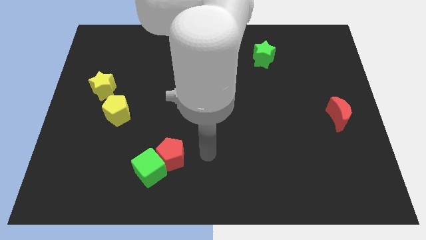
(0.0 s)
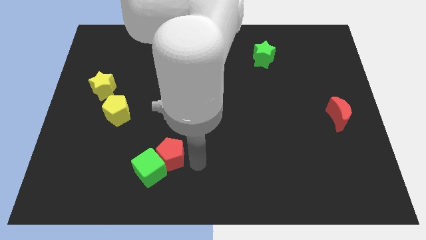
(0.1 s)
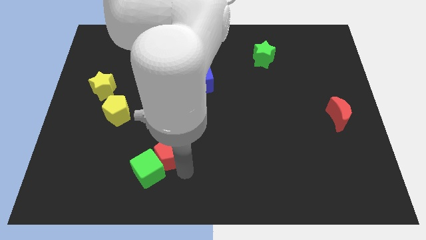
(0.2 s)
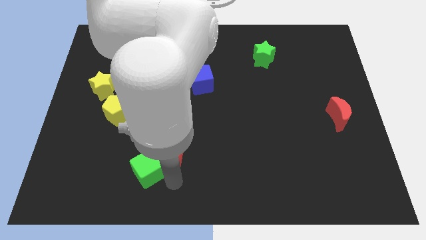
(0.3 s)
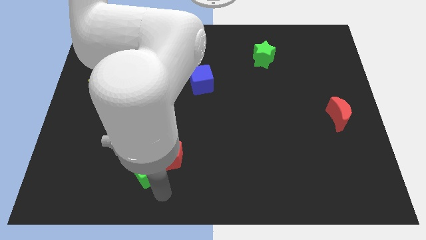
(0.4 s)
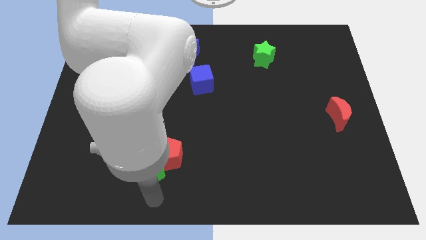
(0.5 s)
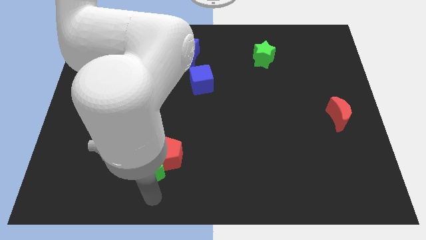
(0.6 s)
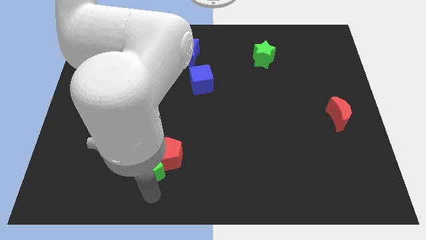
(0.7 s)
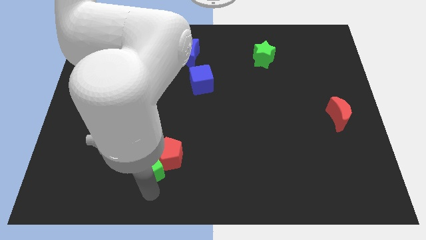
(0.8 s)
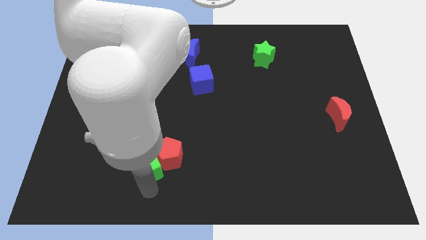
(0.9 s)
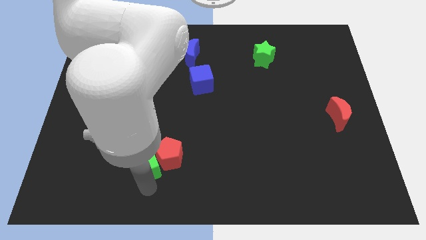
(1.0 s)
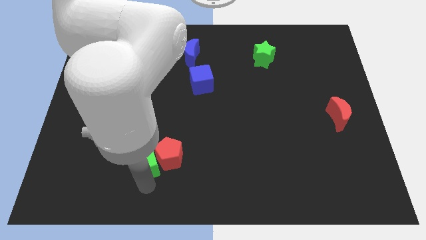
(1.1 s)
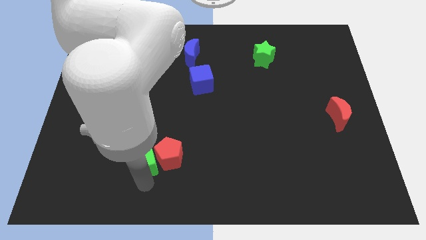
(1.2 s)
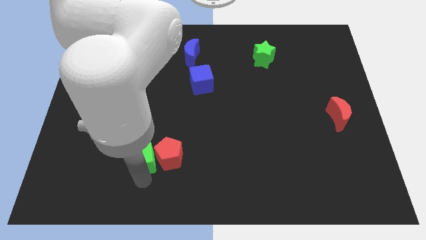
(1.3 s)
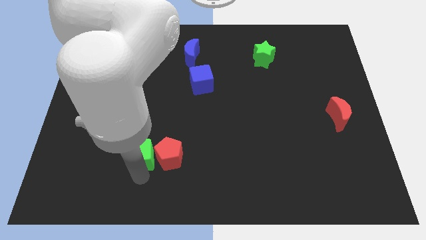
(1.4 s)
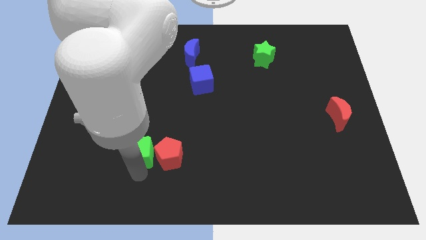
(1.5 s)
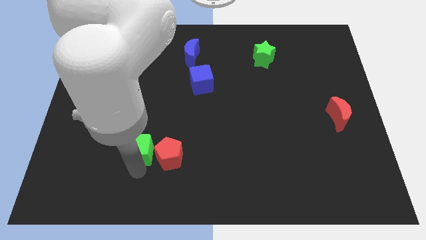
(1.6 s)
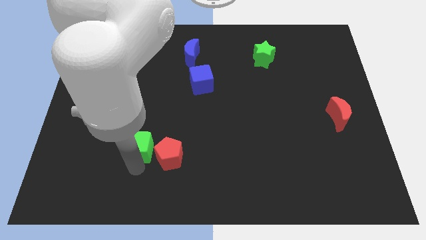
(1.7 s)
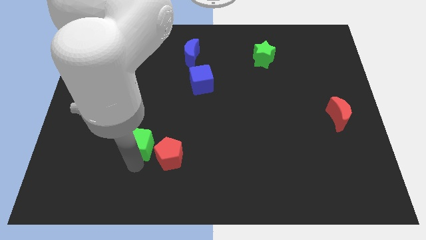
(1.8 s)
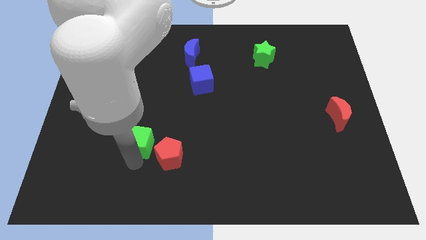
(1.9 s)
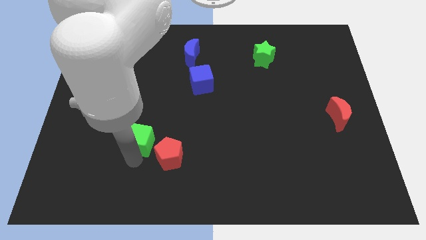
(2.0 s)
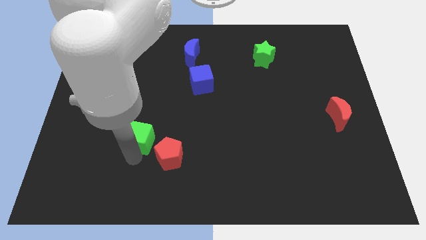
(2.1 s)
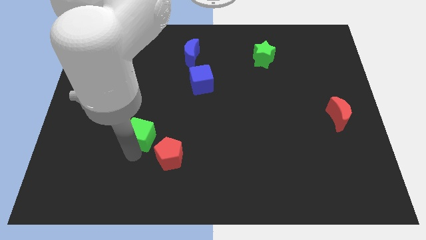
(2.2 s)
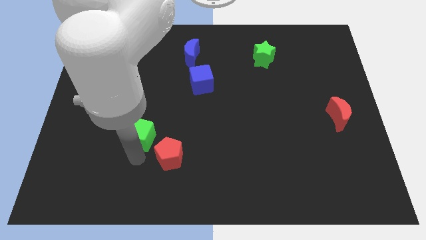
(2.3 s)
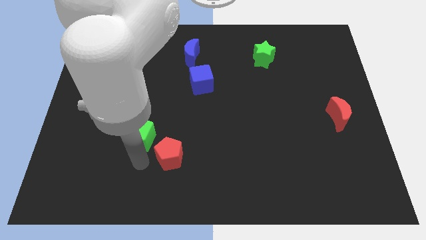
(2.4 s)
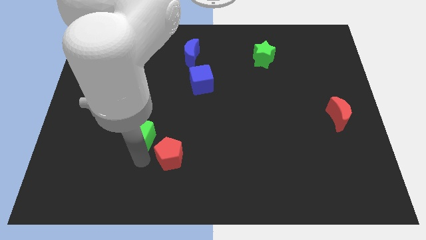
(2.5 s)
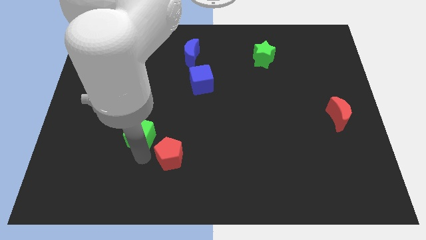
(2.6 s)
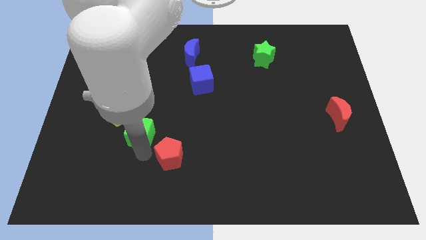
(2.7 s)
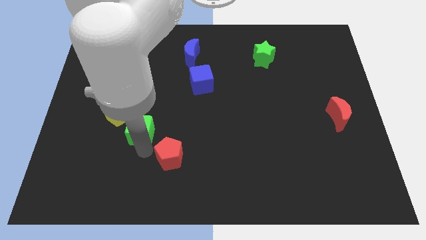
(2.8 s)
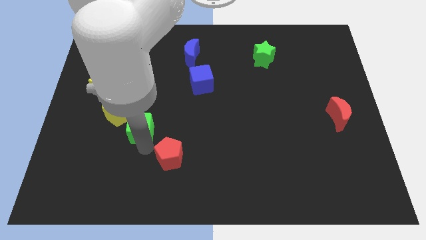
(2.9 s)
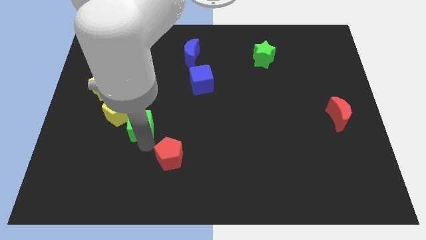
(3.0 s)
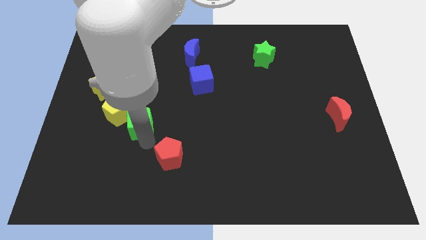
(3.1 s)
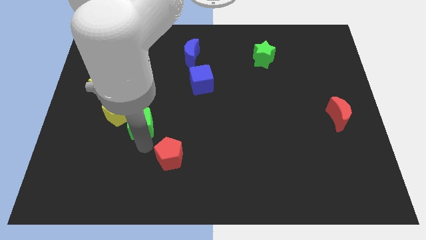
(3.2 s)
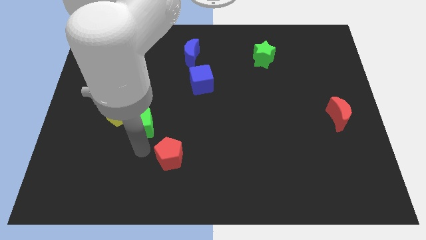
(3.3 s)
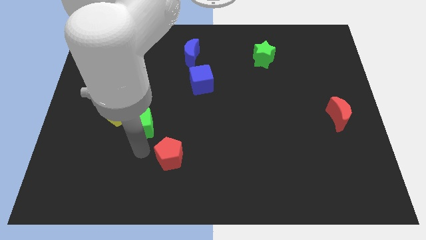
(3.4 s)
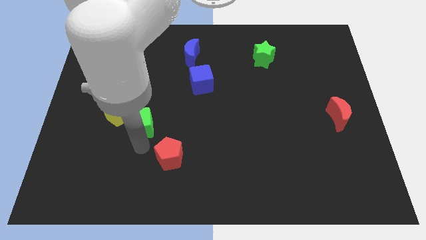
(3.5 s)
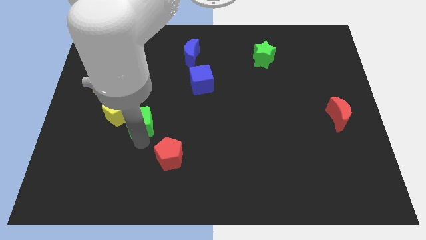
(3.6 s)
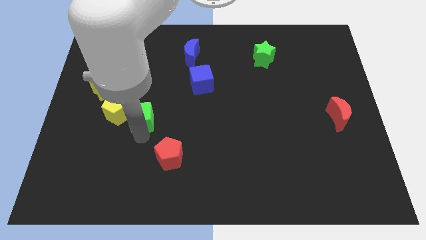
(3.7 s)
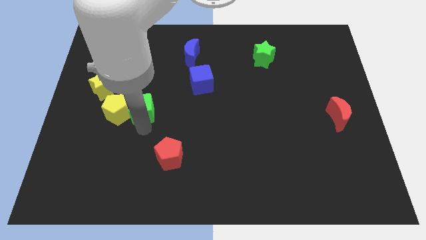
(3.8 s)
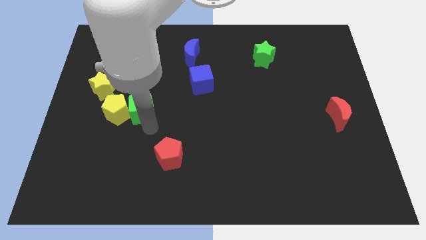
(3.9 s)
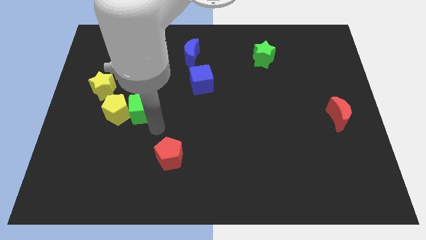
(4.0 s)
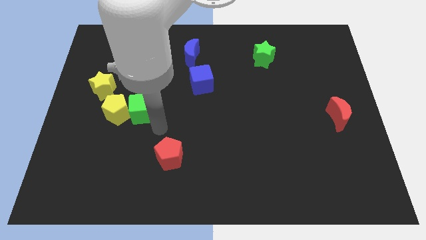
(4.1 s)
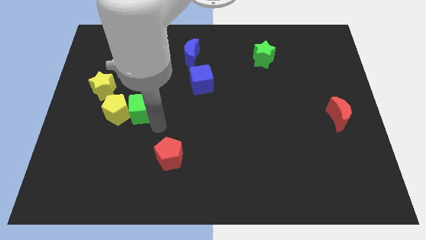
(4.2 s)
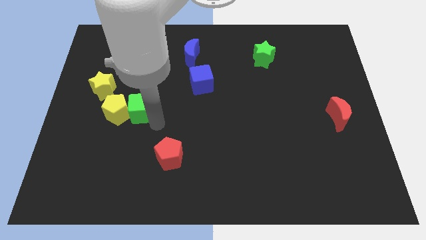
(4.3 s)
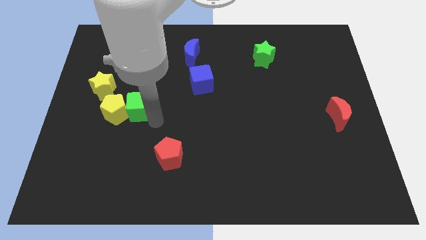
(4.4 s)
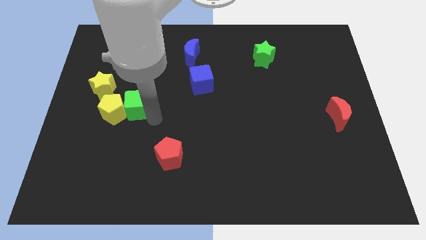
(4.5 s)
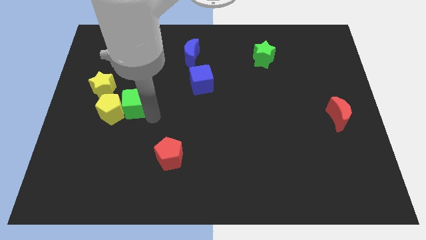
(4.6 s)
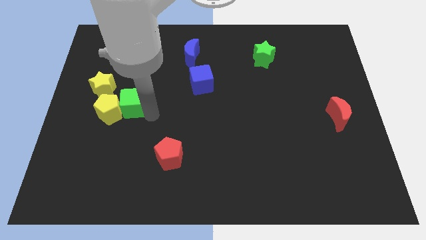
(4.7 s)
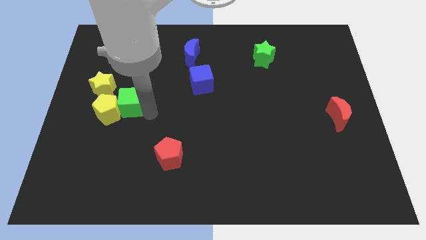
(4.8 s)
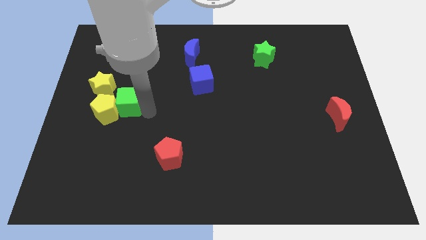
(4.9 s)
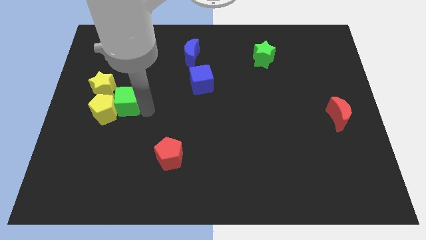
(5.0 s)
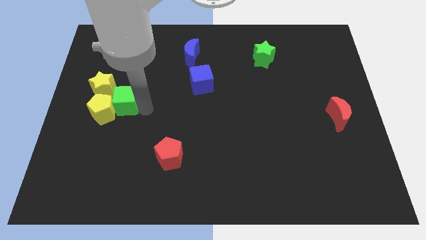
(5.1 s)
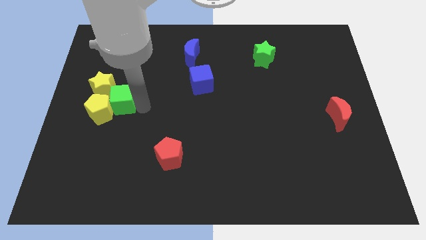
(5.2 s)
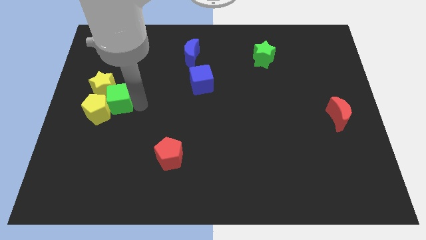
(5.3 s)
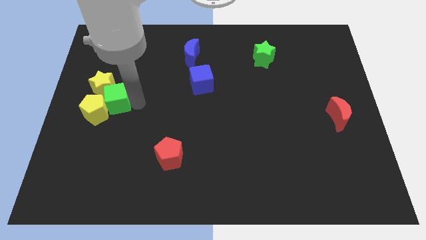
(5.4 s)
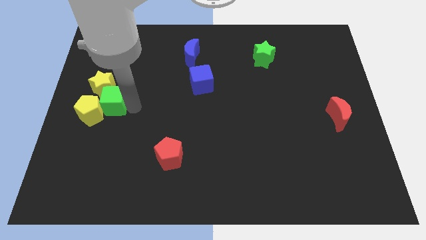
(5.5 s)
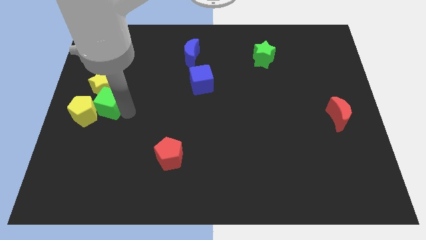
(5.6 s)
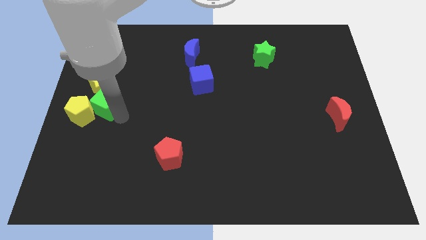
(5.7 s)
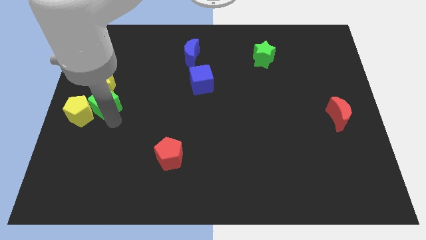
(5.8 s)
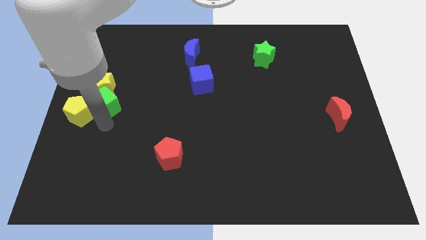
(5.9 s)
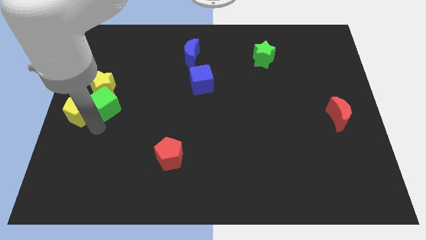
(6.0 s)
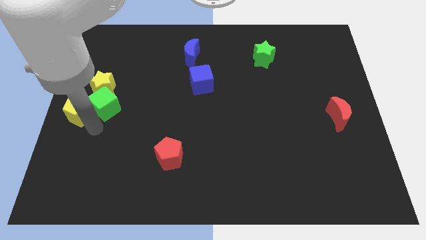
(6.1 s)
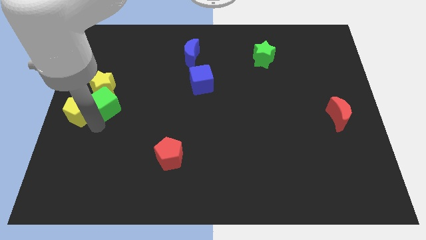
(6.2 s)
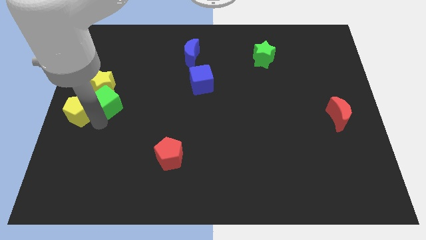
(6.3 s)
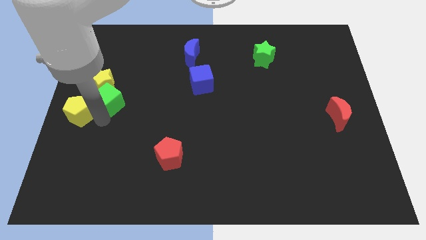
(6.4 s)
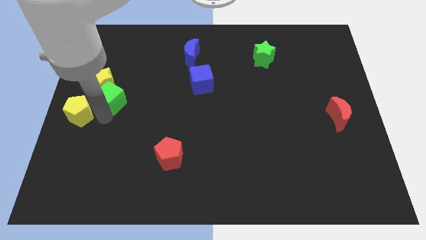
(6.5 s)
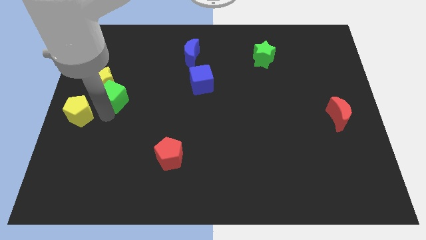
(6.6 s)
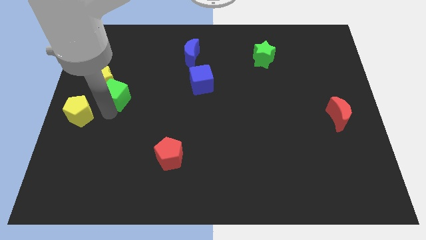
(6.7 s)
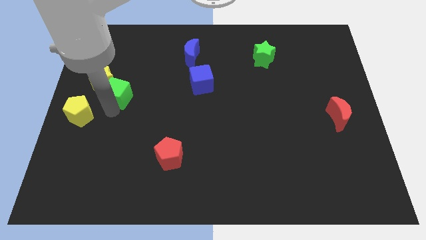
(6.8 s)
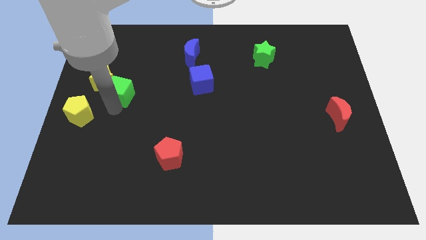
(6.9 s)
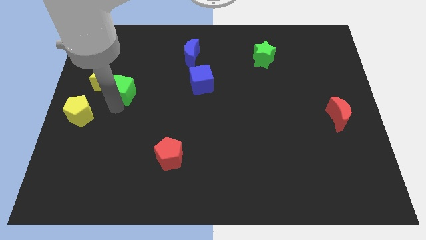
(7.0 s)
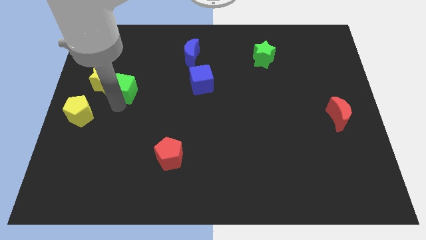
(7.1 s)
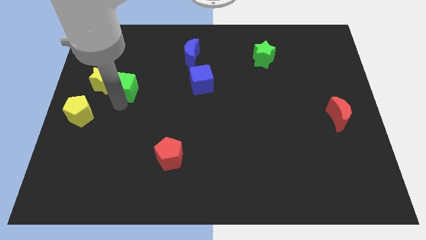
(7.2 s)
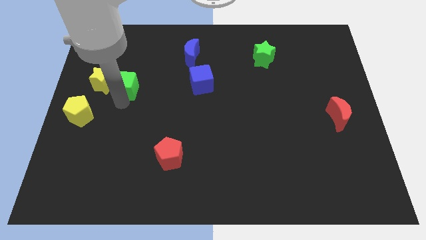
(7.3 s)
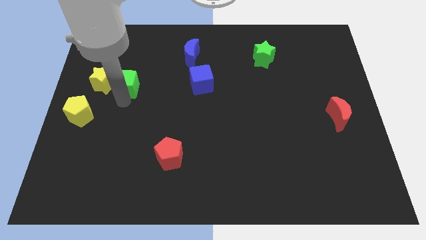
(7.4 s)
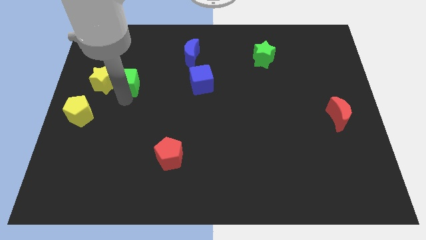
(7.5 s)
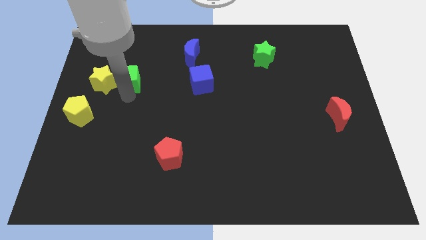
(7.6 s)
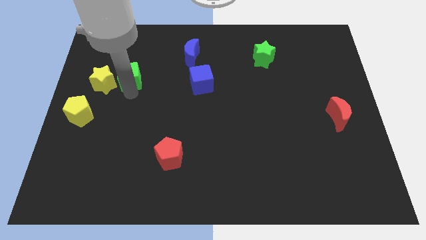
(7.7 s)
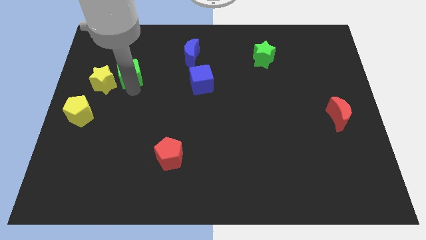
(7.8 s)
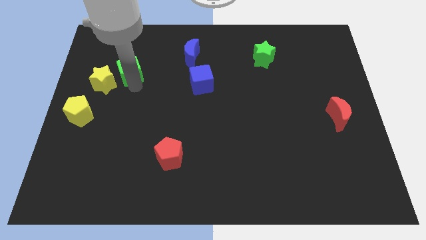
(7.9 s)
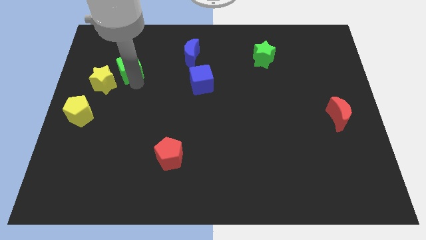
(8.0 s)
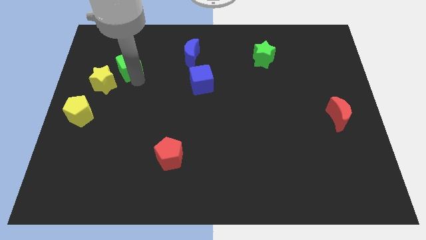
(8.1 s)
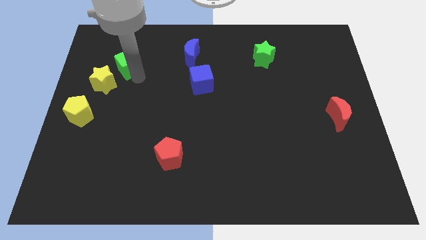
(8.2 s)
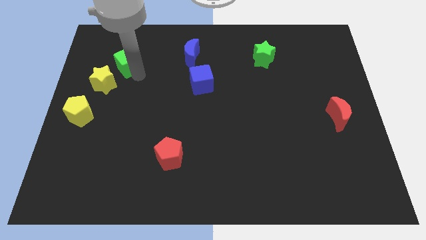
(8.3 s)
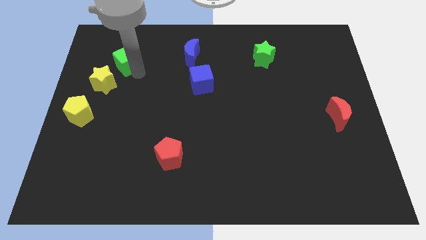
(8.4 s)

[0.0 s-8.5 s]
push the green cube to the top of the yellow star
